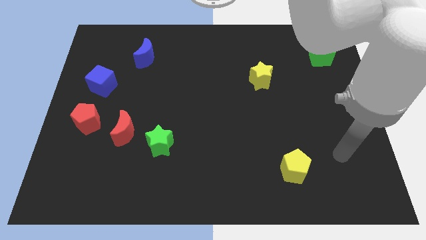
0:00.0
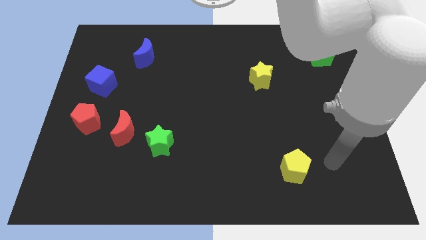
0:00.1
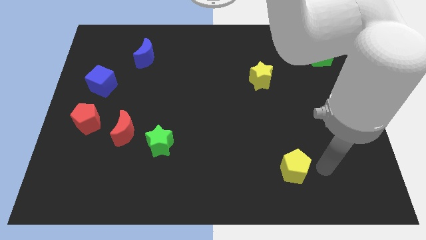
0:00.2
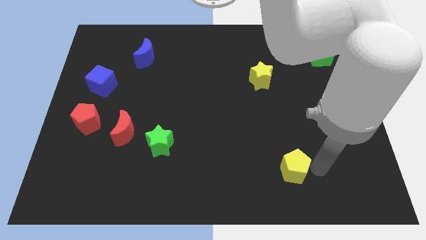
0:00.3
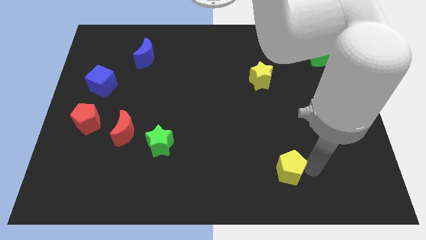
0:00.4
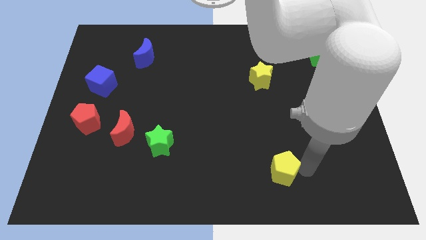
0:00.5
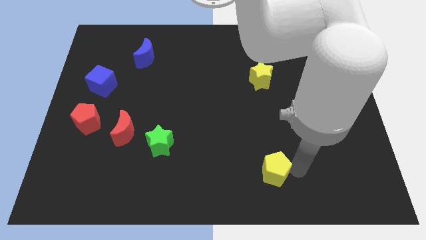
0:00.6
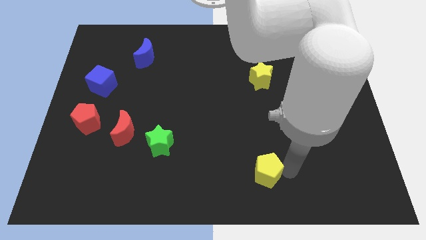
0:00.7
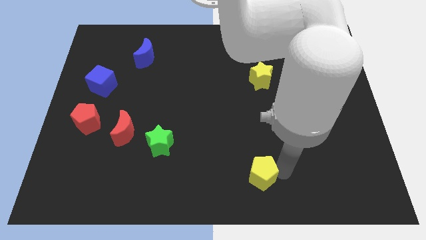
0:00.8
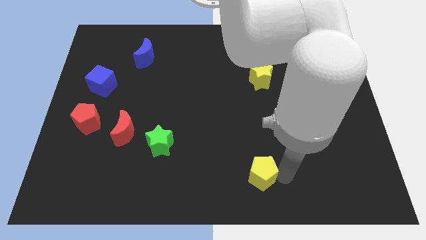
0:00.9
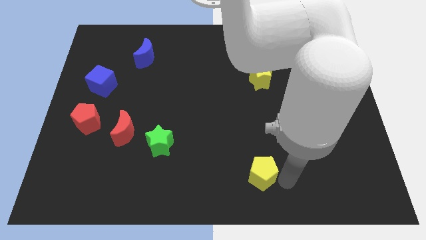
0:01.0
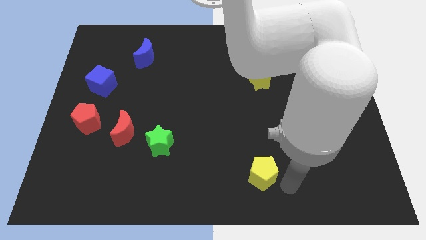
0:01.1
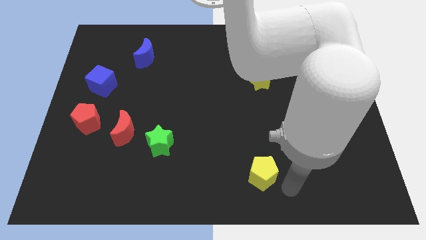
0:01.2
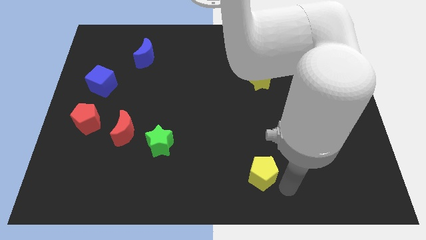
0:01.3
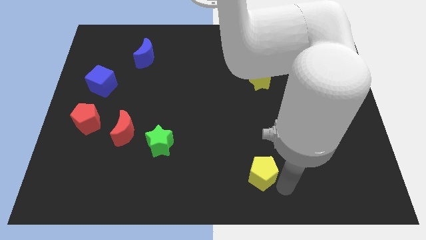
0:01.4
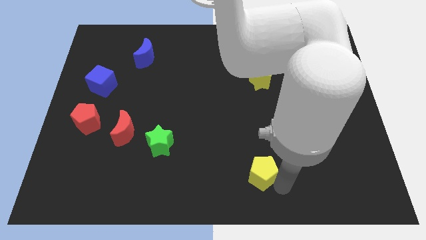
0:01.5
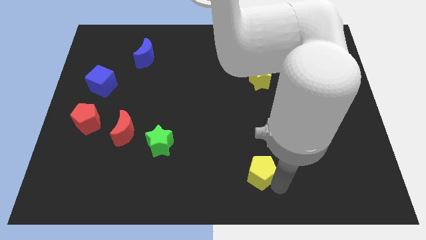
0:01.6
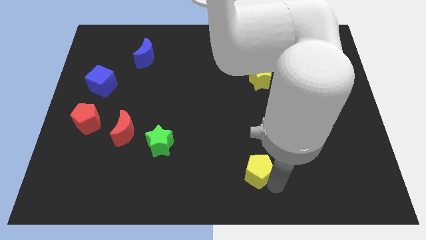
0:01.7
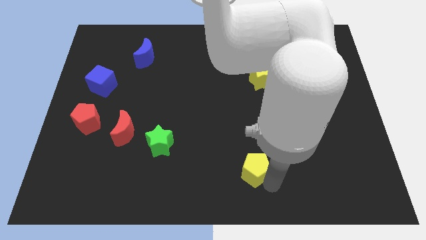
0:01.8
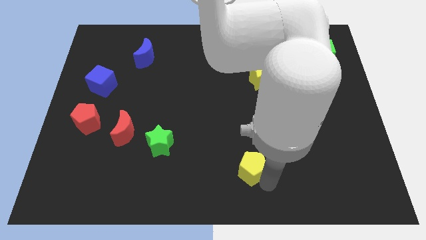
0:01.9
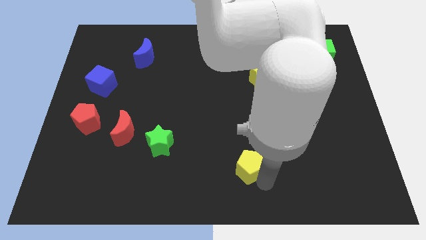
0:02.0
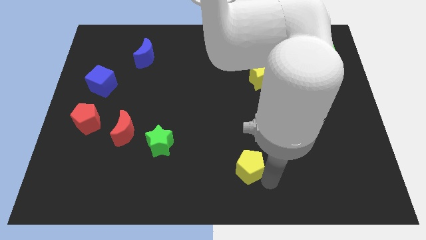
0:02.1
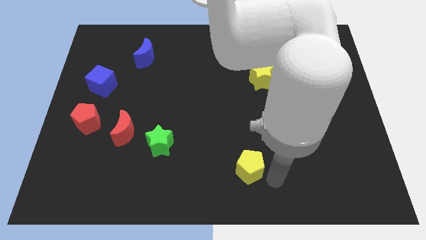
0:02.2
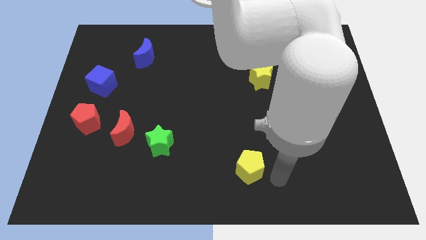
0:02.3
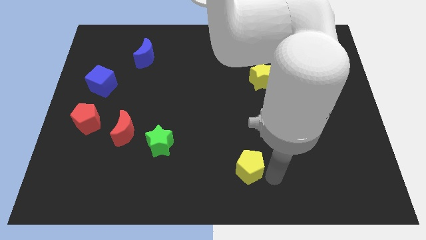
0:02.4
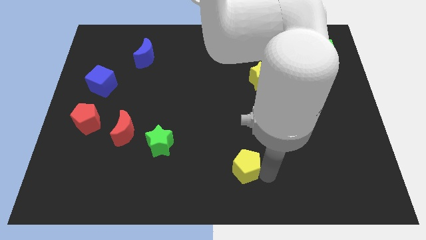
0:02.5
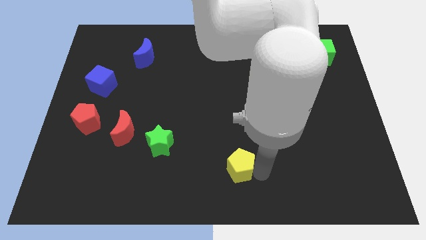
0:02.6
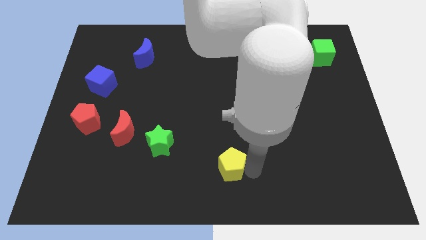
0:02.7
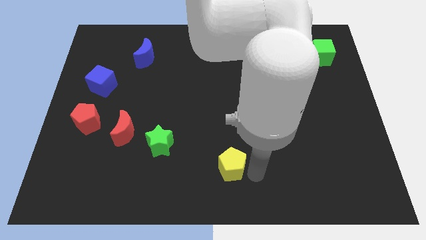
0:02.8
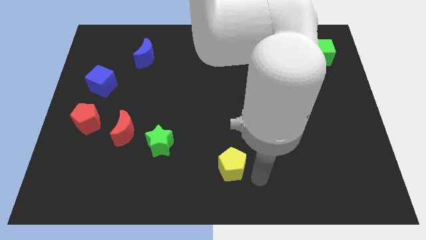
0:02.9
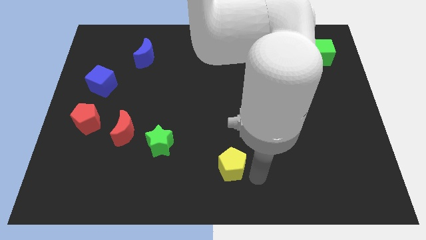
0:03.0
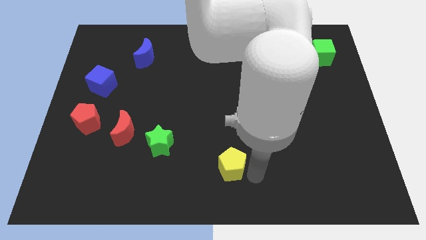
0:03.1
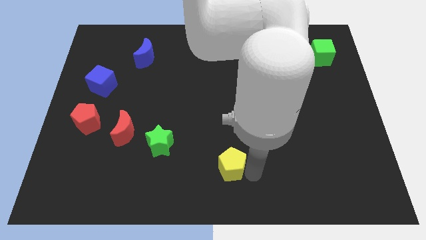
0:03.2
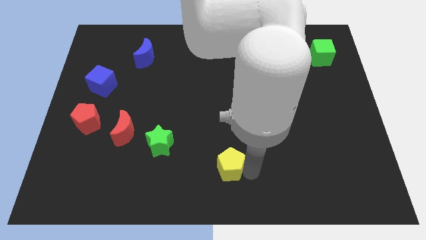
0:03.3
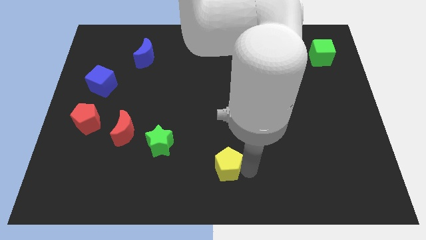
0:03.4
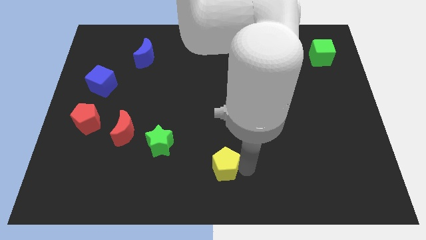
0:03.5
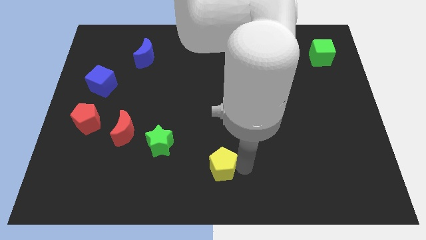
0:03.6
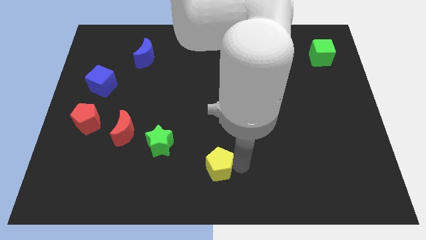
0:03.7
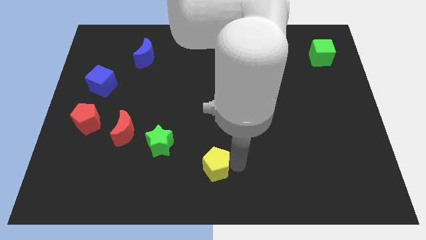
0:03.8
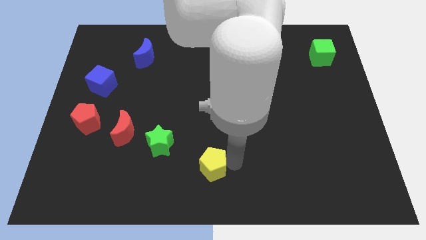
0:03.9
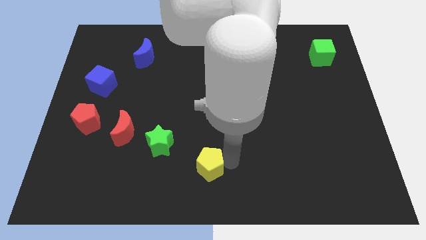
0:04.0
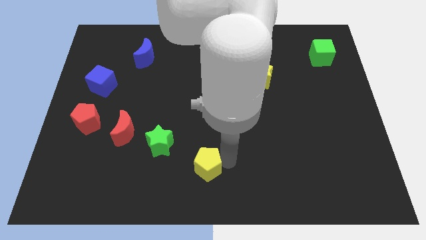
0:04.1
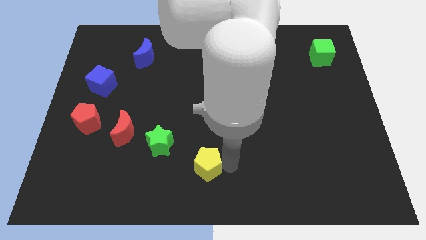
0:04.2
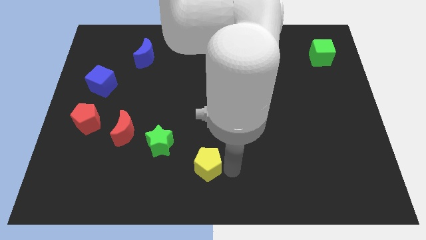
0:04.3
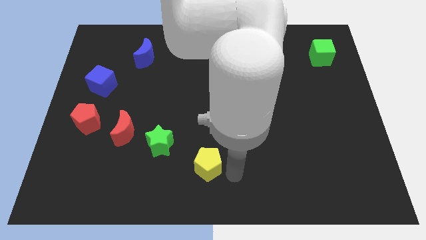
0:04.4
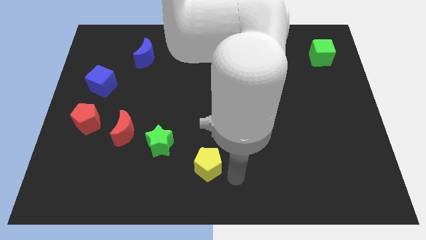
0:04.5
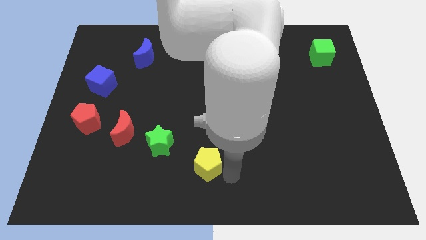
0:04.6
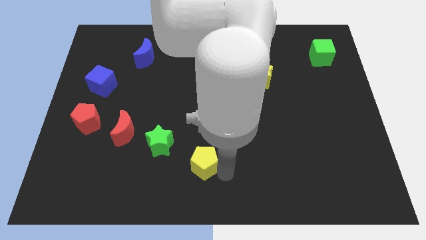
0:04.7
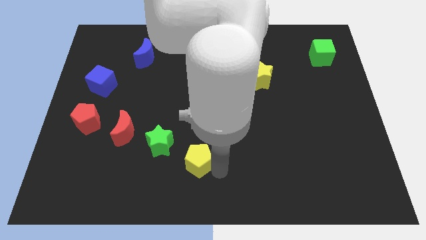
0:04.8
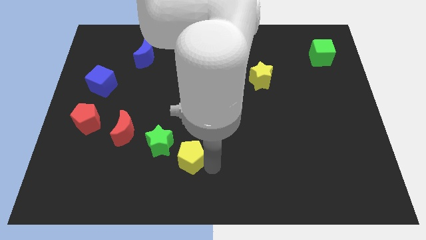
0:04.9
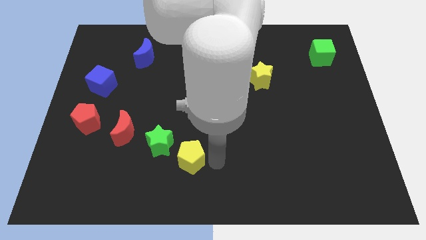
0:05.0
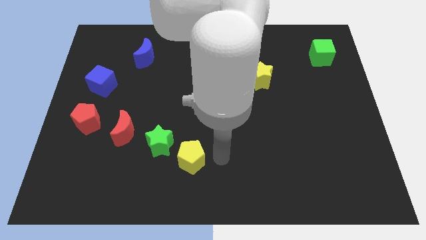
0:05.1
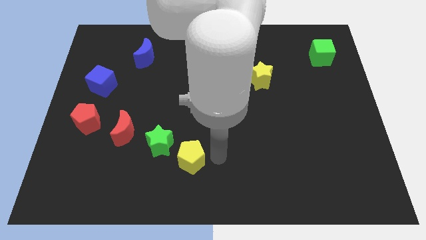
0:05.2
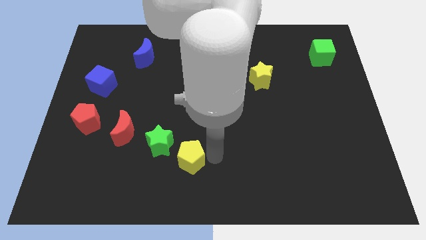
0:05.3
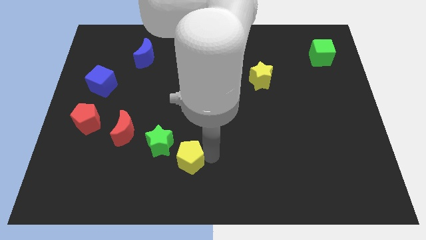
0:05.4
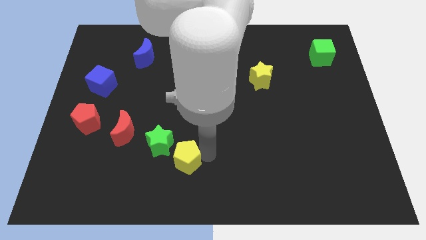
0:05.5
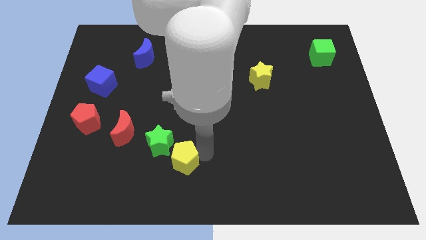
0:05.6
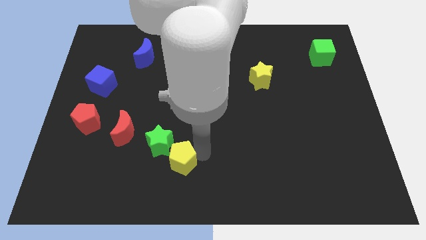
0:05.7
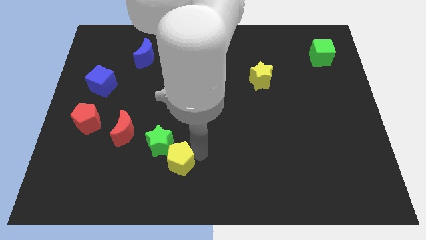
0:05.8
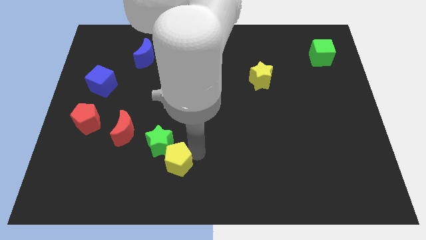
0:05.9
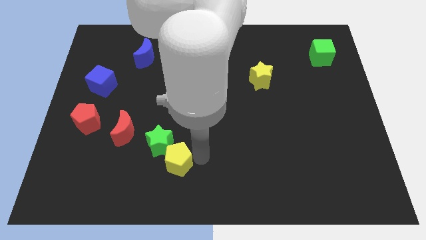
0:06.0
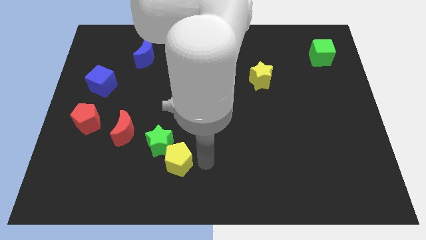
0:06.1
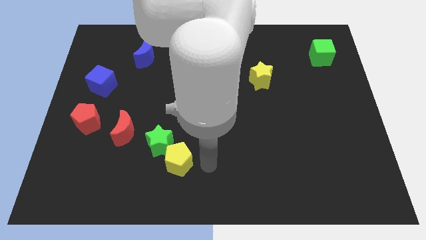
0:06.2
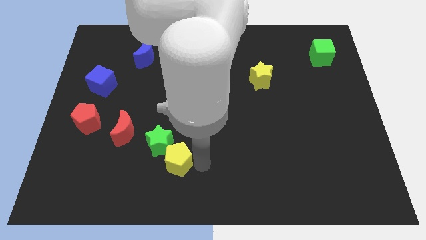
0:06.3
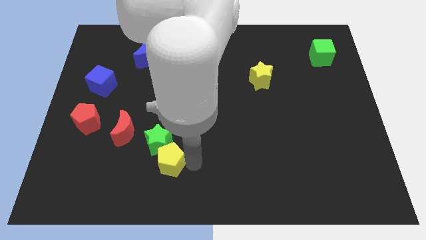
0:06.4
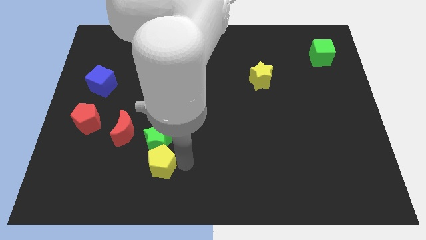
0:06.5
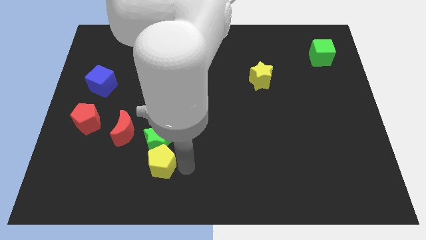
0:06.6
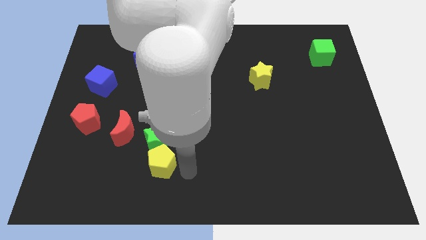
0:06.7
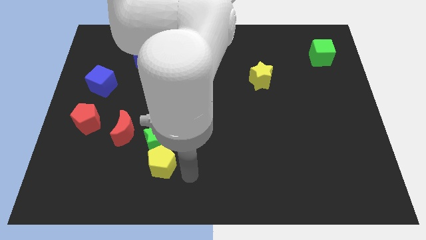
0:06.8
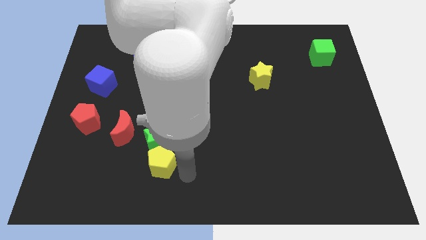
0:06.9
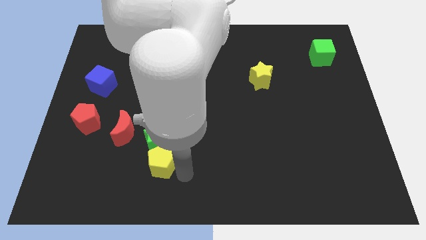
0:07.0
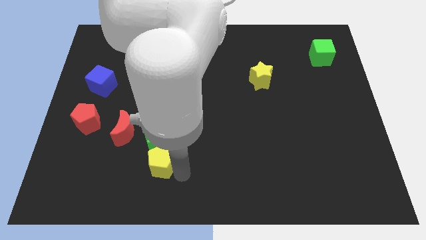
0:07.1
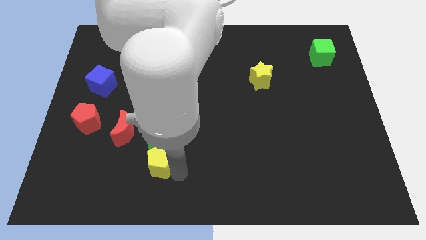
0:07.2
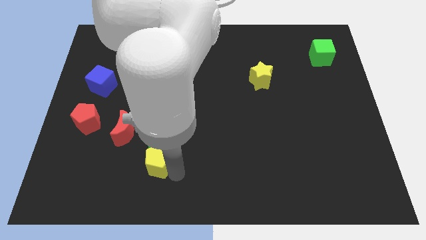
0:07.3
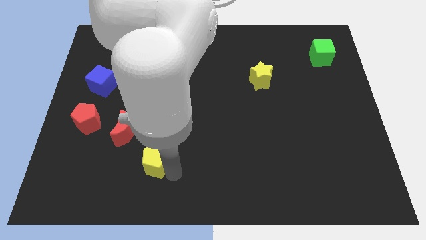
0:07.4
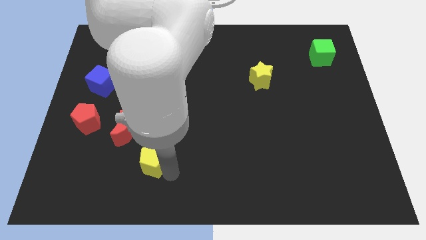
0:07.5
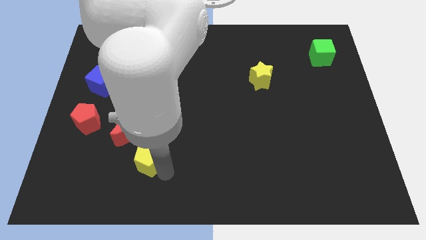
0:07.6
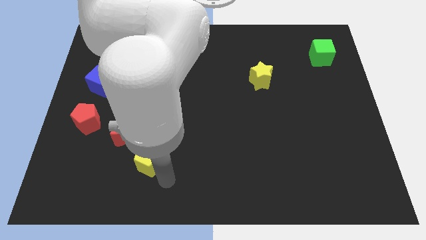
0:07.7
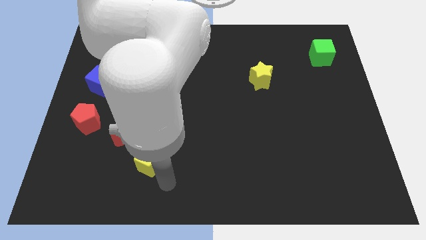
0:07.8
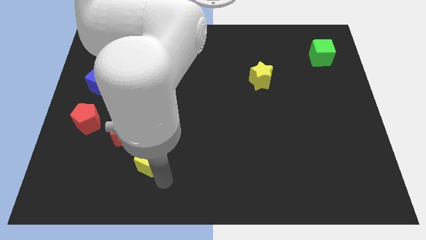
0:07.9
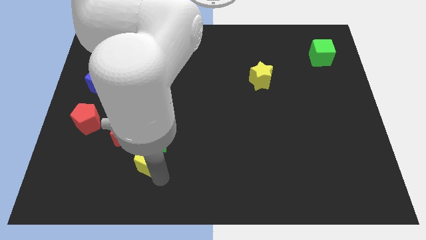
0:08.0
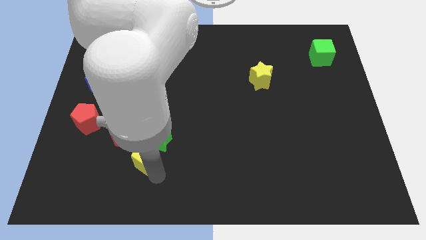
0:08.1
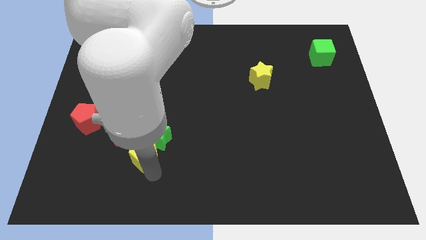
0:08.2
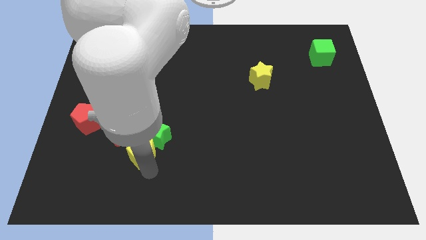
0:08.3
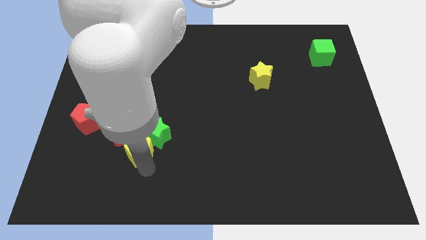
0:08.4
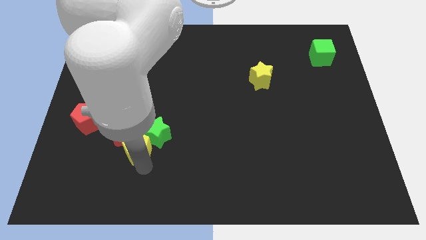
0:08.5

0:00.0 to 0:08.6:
move the yellow pentagon close to the red moon
